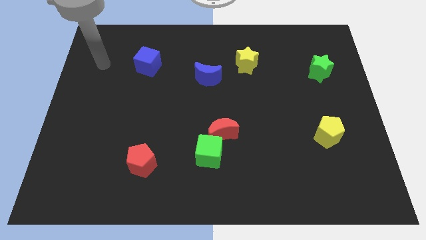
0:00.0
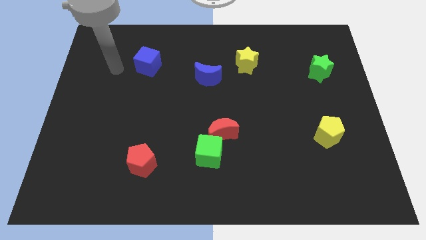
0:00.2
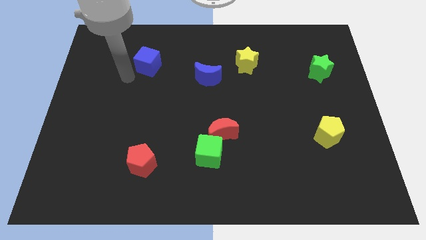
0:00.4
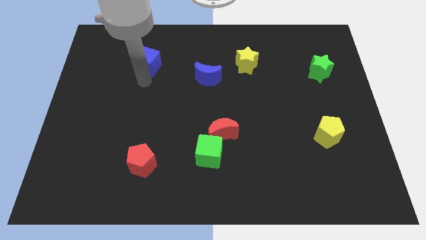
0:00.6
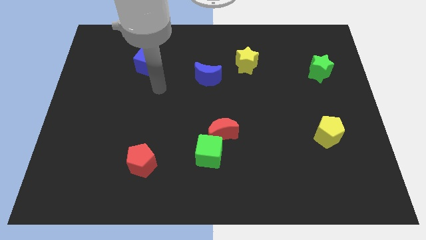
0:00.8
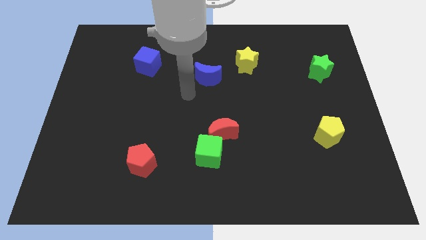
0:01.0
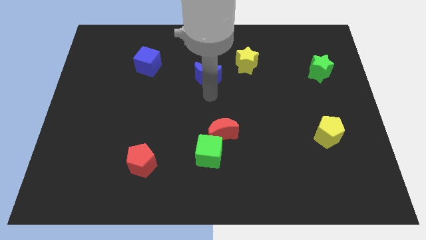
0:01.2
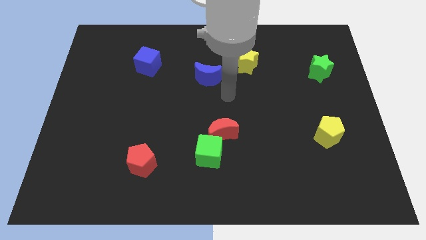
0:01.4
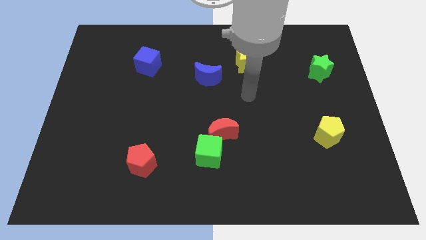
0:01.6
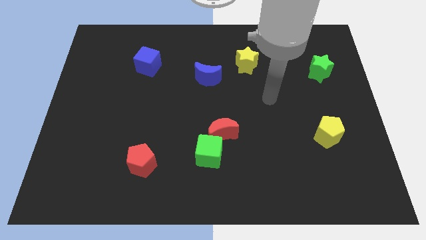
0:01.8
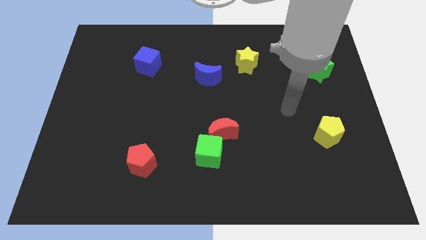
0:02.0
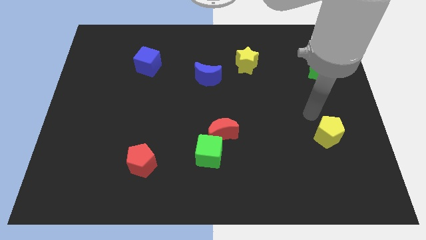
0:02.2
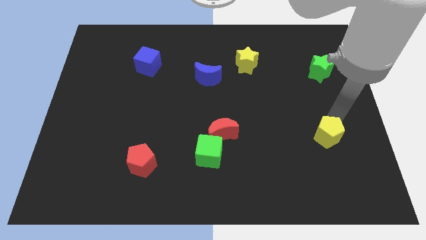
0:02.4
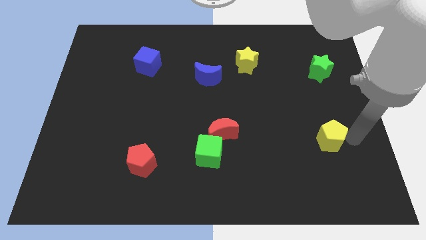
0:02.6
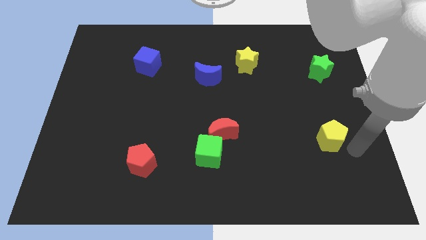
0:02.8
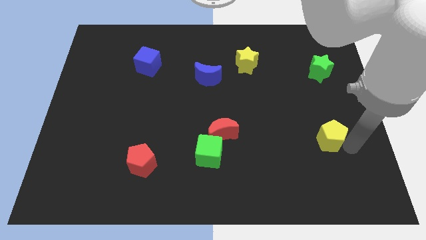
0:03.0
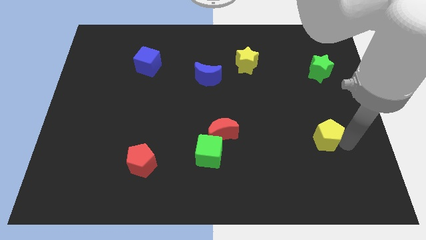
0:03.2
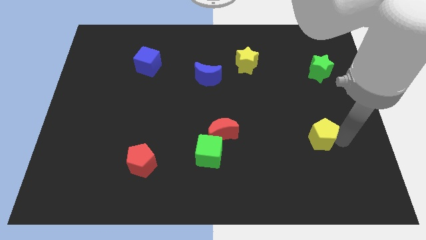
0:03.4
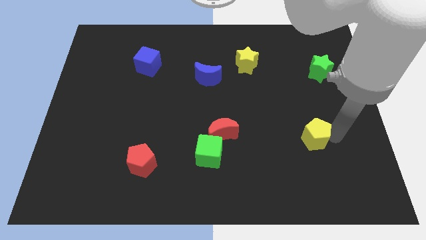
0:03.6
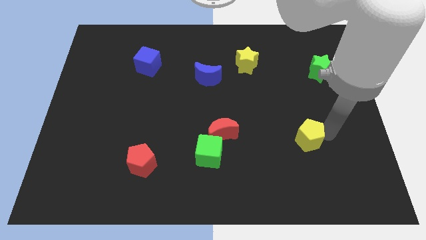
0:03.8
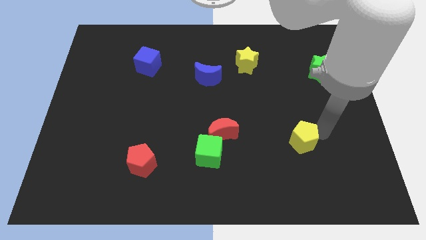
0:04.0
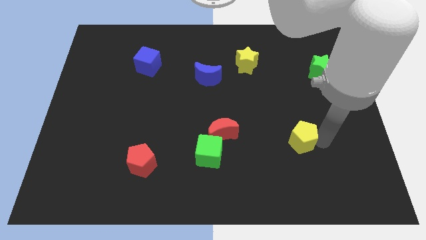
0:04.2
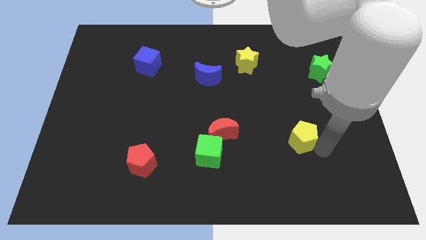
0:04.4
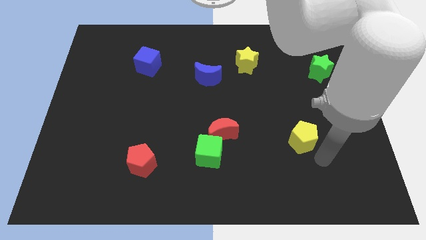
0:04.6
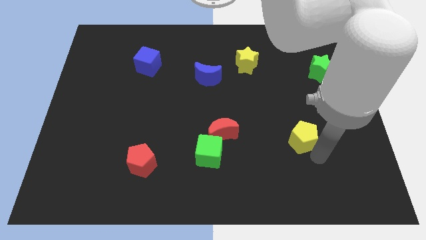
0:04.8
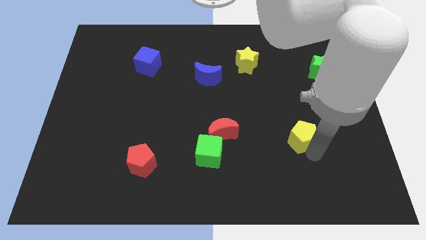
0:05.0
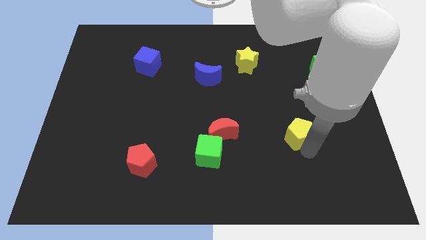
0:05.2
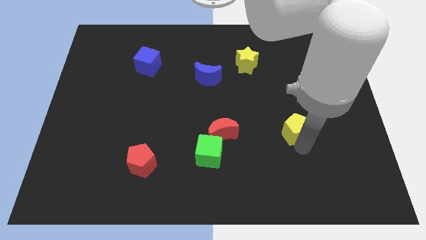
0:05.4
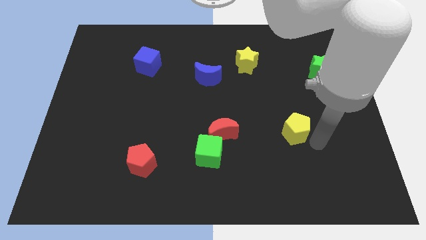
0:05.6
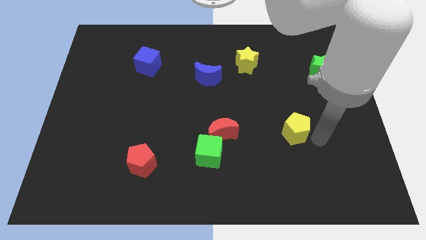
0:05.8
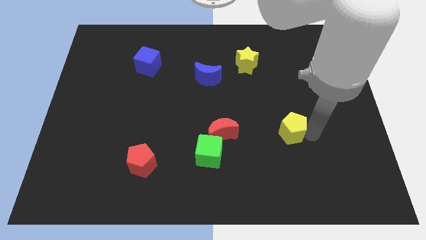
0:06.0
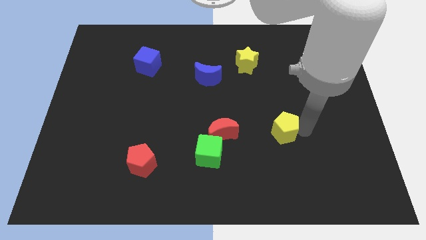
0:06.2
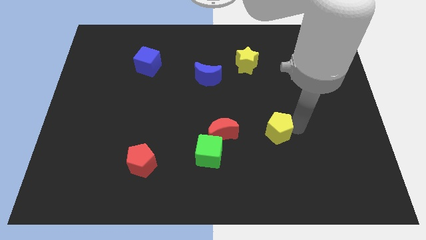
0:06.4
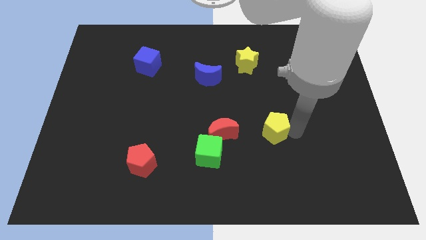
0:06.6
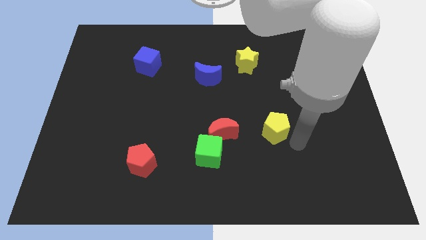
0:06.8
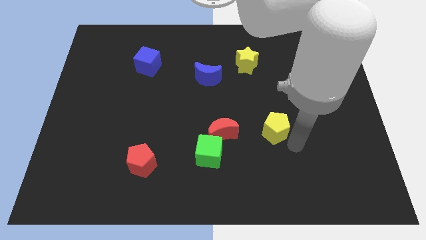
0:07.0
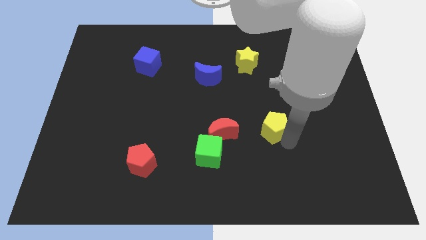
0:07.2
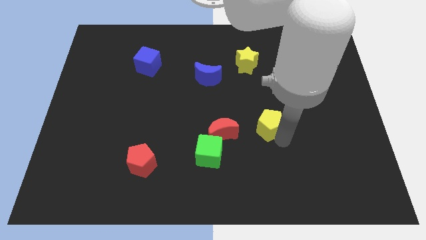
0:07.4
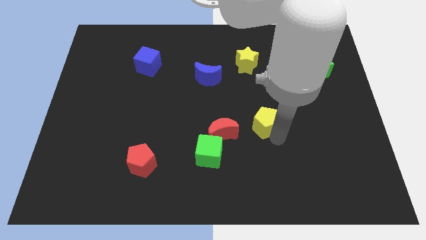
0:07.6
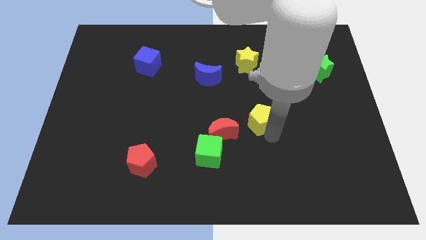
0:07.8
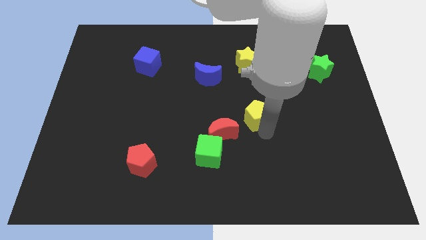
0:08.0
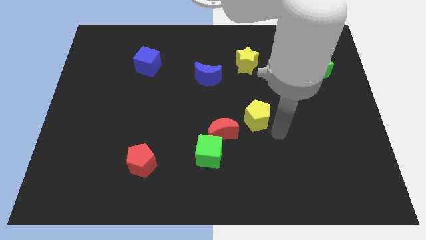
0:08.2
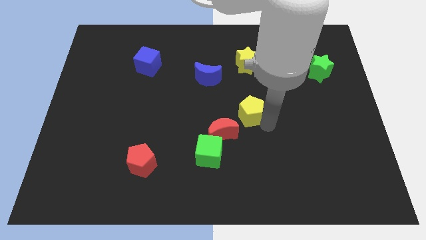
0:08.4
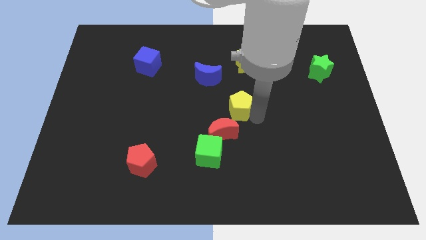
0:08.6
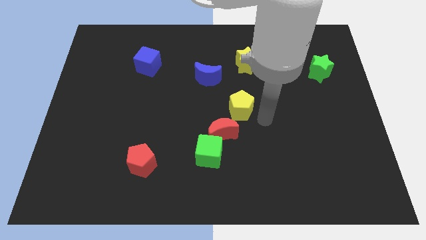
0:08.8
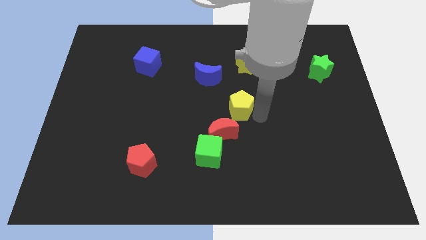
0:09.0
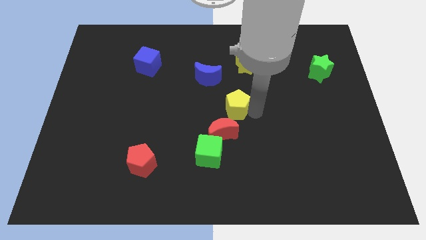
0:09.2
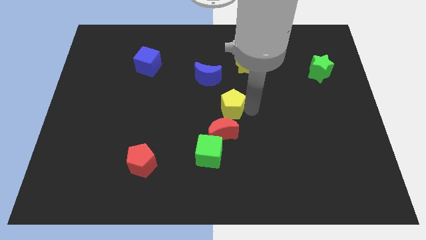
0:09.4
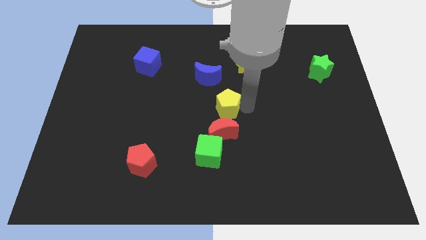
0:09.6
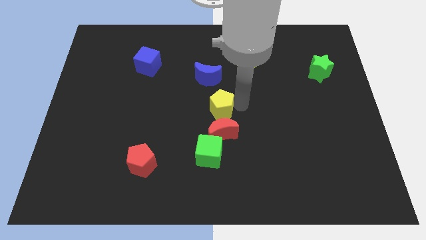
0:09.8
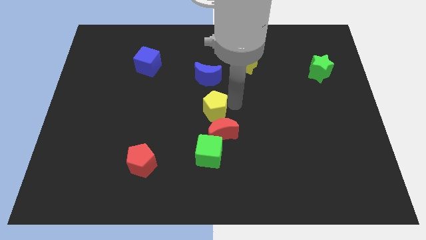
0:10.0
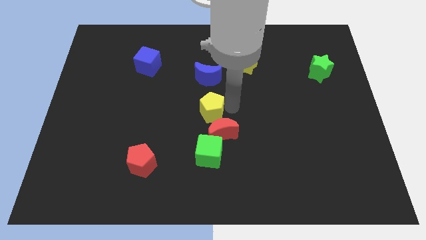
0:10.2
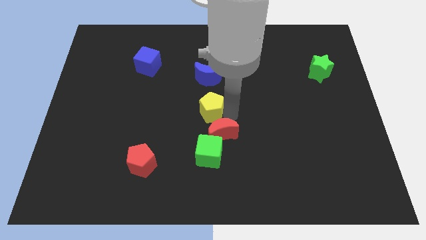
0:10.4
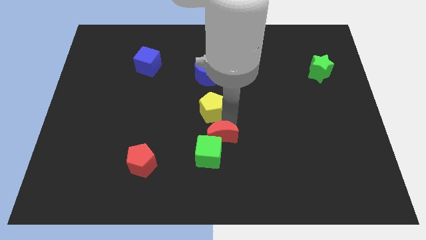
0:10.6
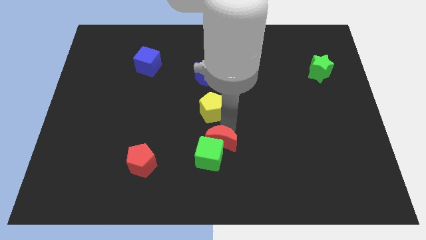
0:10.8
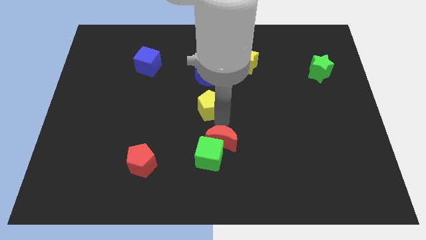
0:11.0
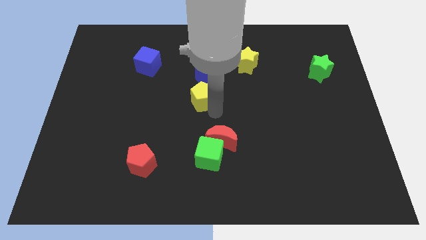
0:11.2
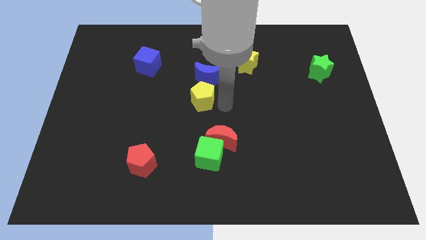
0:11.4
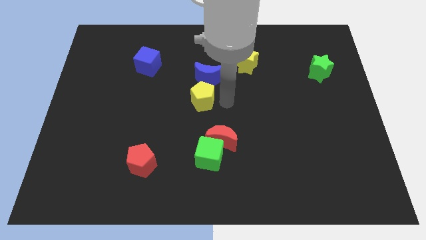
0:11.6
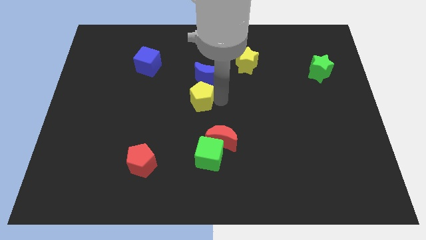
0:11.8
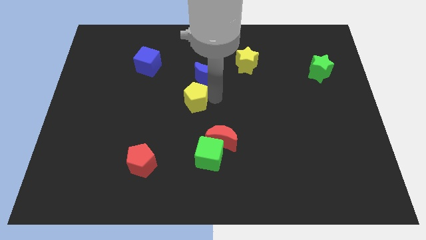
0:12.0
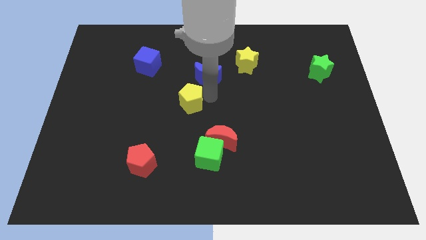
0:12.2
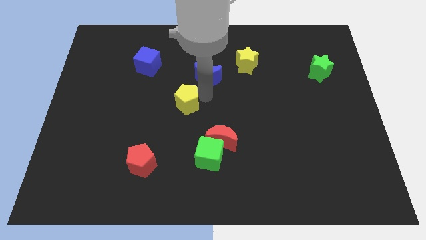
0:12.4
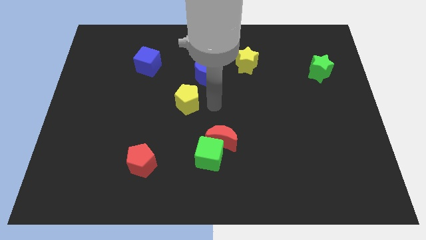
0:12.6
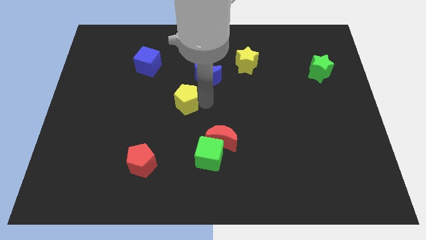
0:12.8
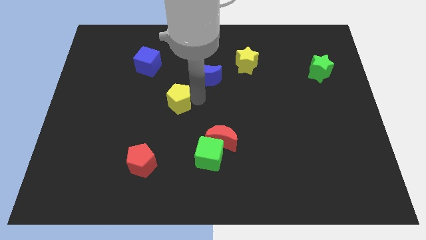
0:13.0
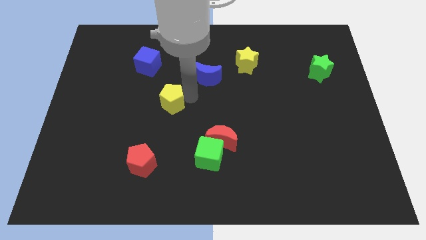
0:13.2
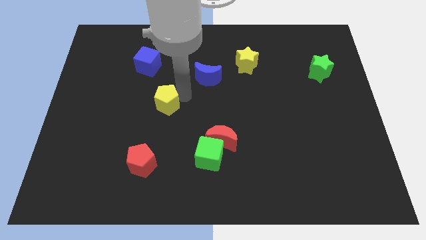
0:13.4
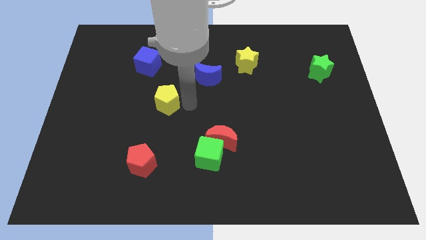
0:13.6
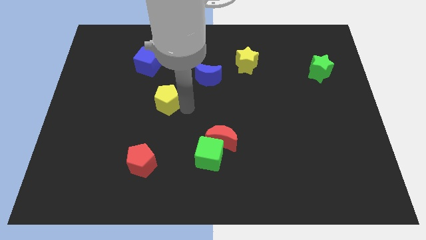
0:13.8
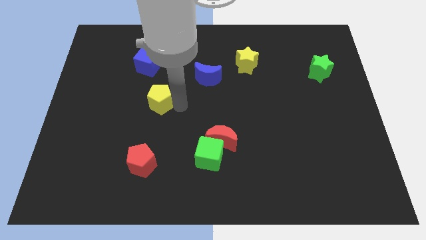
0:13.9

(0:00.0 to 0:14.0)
move the yellow pentagon below the blue cube

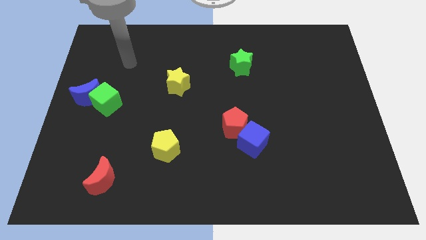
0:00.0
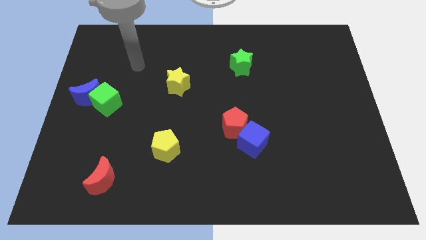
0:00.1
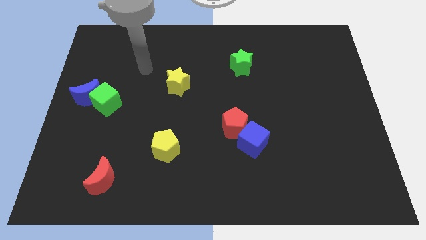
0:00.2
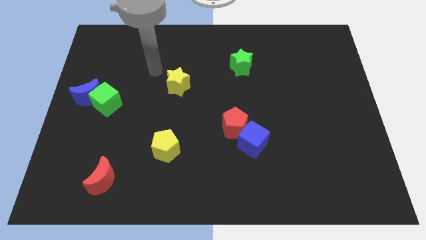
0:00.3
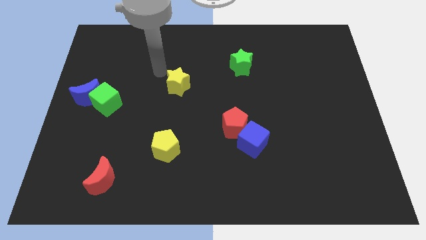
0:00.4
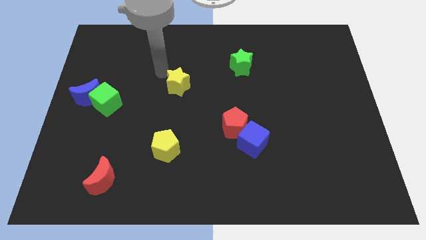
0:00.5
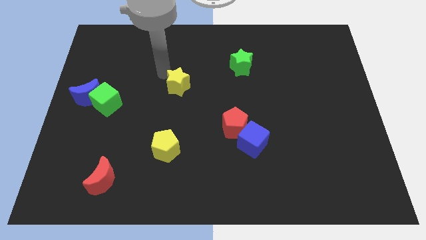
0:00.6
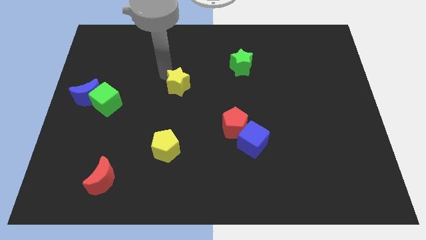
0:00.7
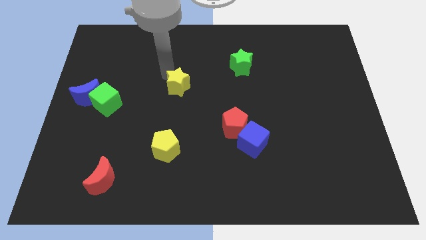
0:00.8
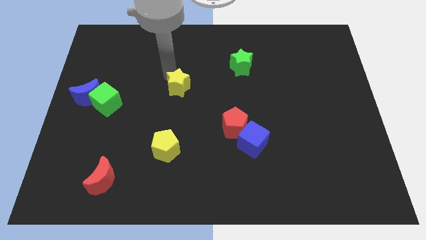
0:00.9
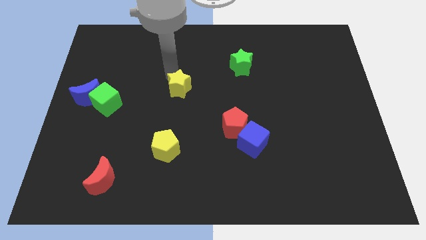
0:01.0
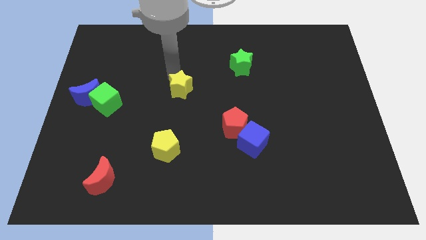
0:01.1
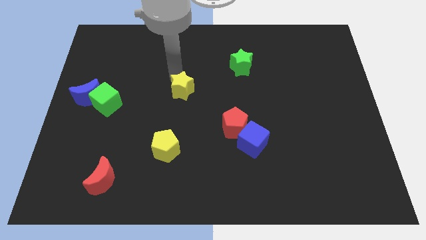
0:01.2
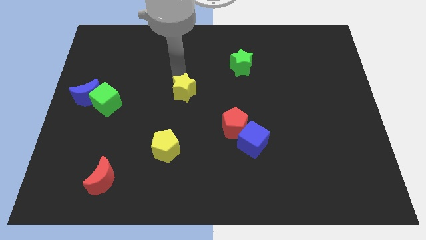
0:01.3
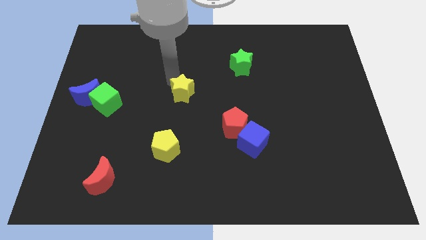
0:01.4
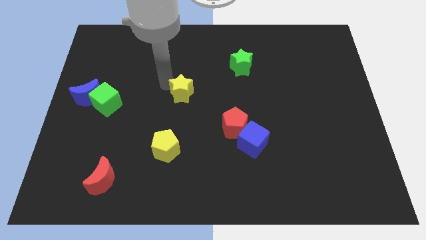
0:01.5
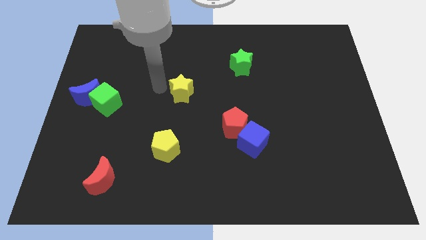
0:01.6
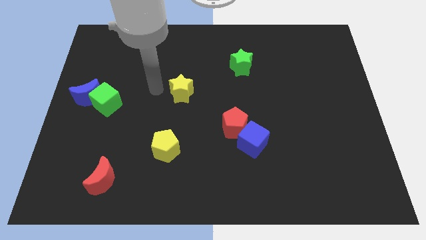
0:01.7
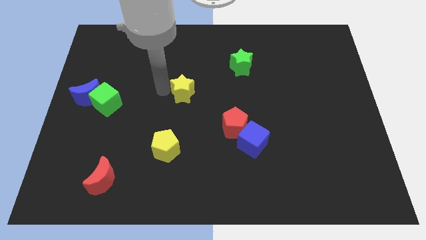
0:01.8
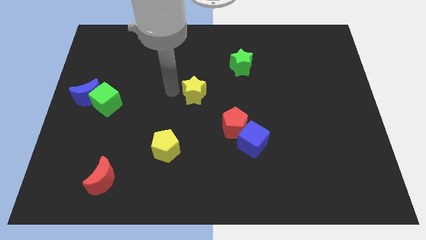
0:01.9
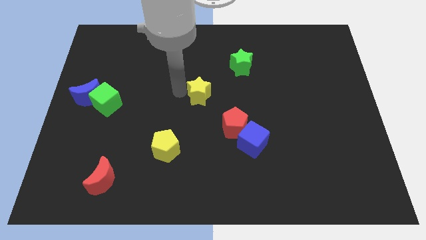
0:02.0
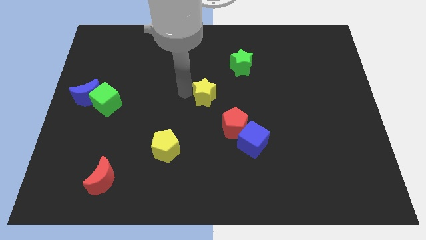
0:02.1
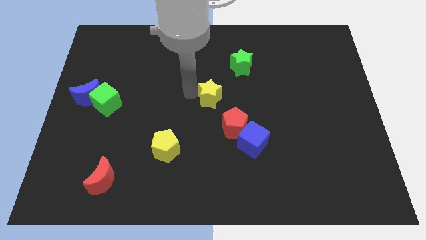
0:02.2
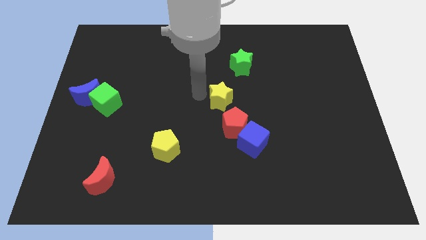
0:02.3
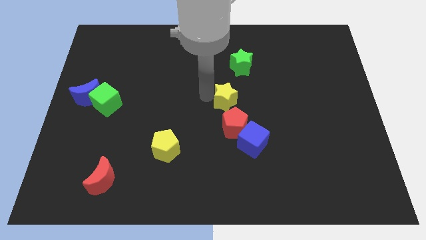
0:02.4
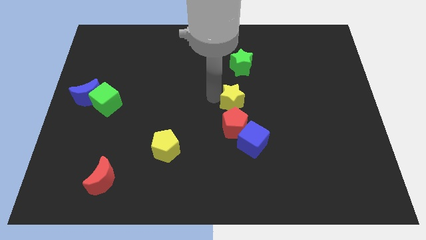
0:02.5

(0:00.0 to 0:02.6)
put the yellow star above the blue cube
